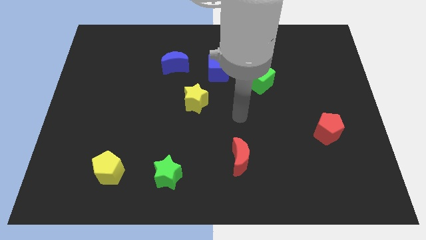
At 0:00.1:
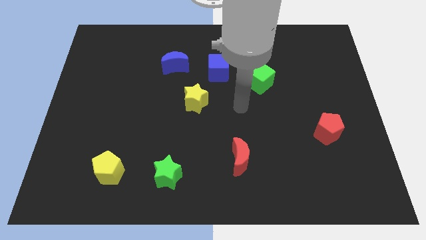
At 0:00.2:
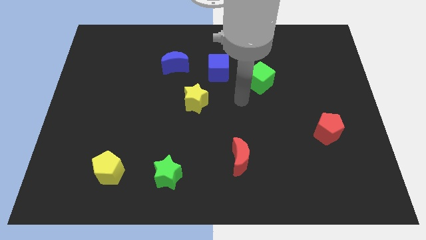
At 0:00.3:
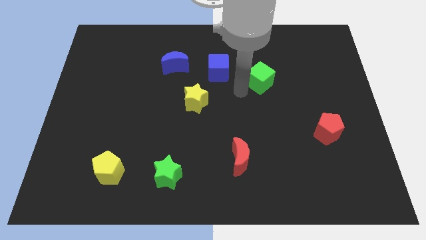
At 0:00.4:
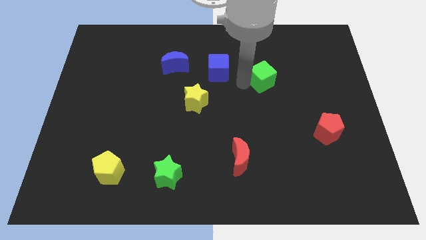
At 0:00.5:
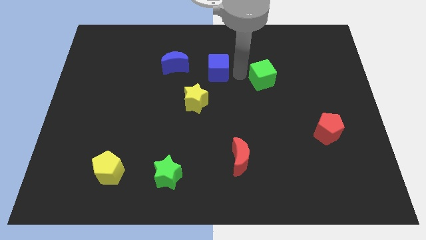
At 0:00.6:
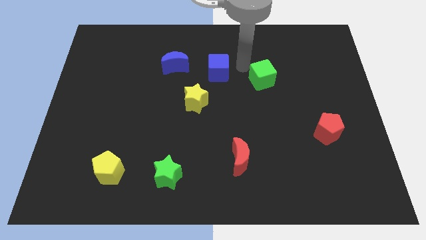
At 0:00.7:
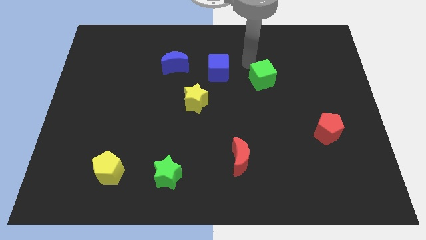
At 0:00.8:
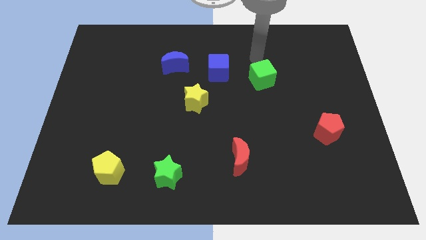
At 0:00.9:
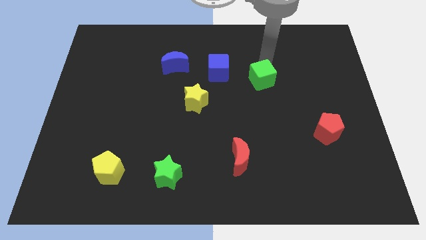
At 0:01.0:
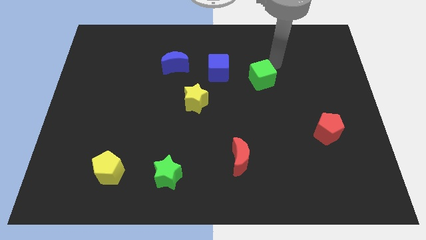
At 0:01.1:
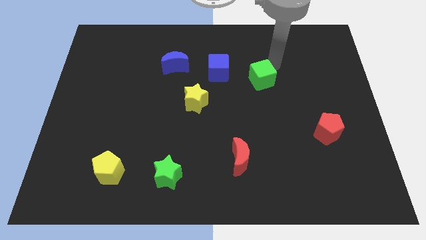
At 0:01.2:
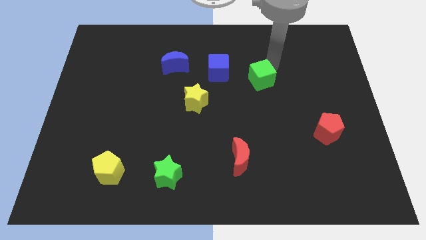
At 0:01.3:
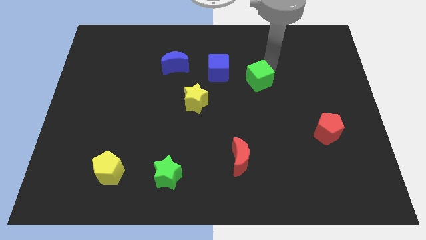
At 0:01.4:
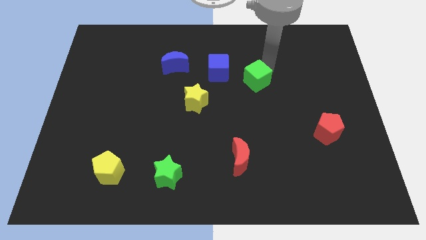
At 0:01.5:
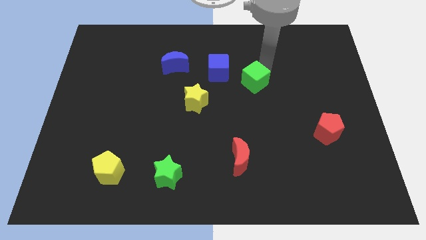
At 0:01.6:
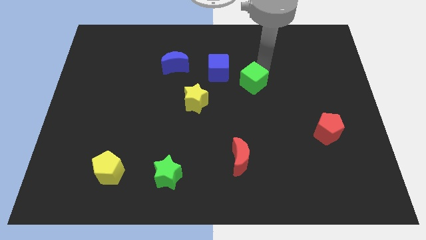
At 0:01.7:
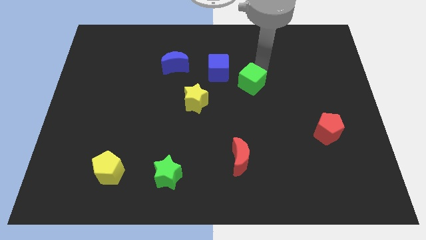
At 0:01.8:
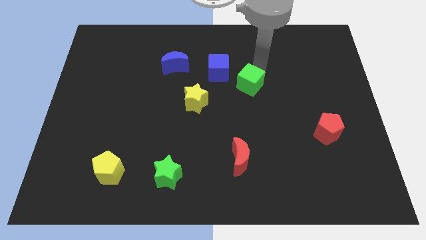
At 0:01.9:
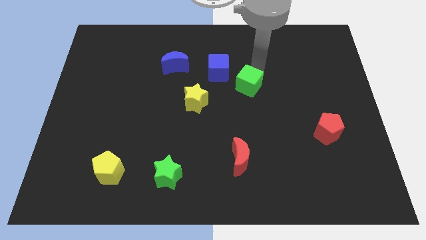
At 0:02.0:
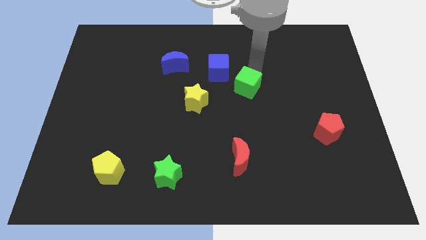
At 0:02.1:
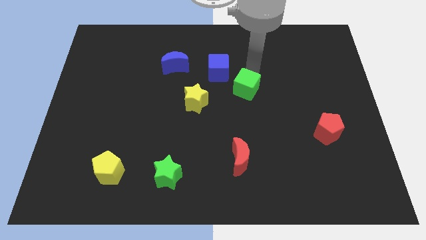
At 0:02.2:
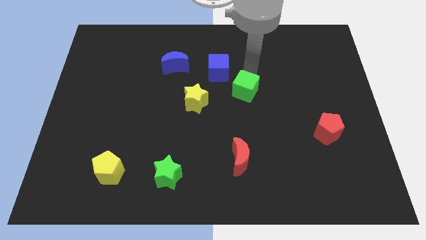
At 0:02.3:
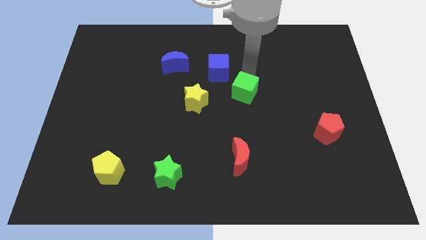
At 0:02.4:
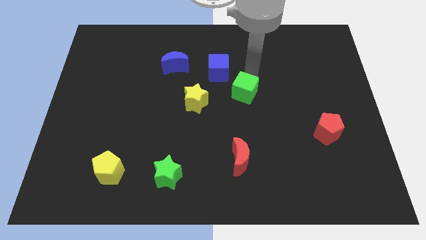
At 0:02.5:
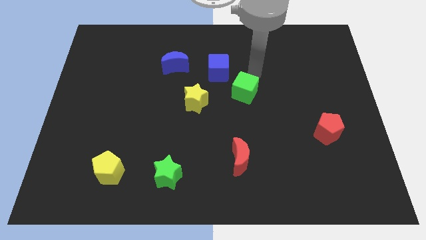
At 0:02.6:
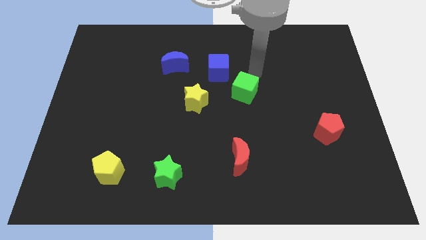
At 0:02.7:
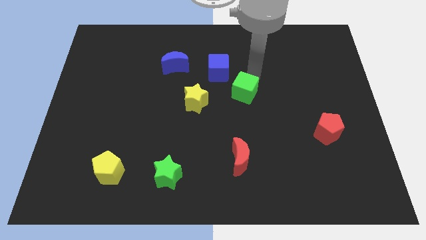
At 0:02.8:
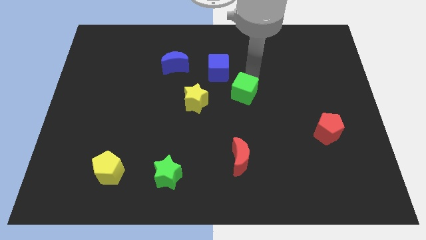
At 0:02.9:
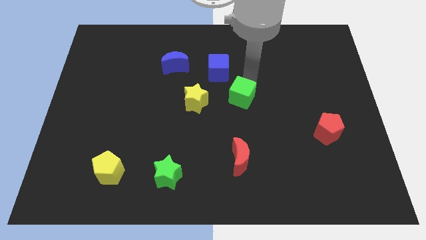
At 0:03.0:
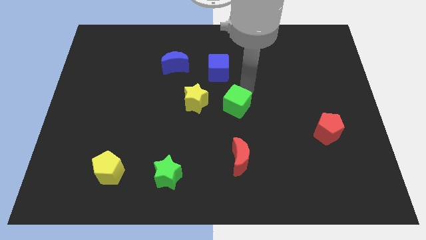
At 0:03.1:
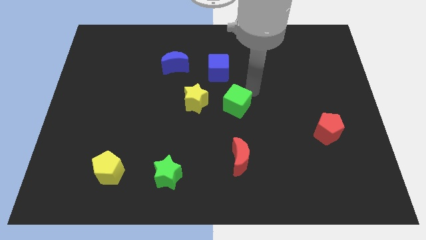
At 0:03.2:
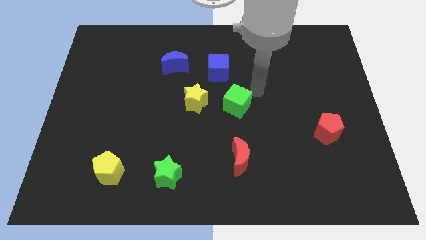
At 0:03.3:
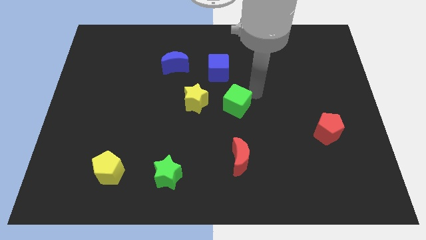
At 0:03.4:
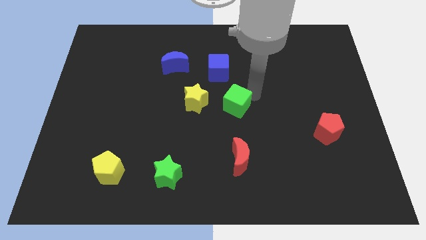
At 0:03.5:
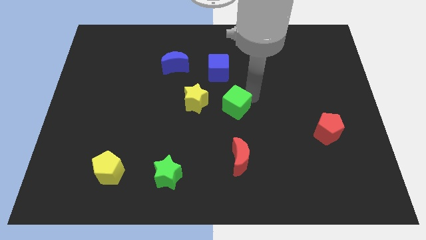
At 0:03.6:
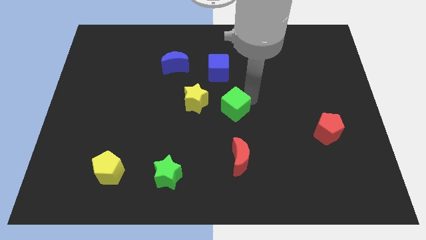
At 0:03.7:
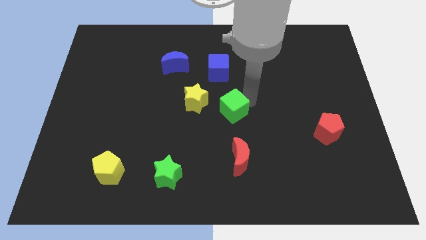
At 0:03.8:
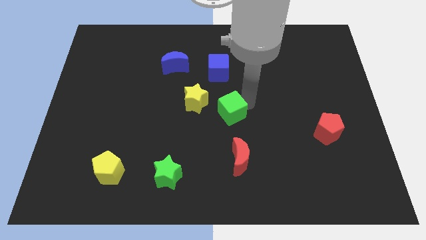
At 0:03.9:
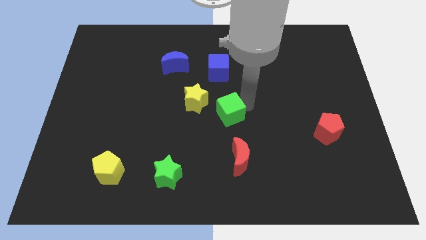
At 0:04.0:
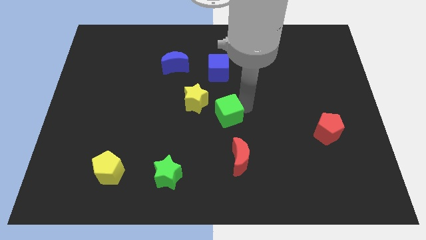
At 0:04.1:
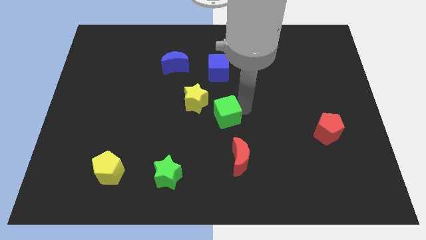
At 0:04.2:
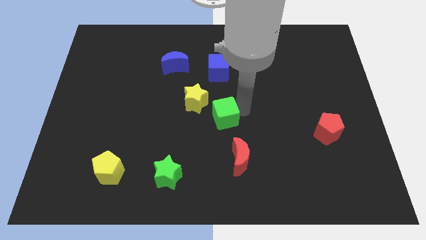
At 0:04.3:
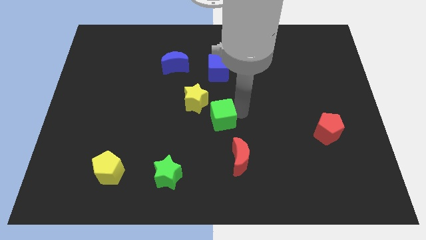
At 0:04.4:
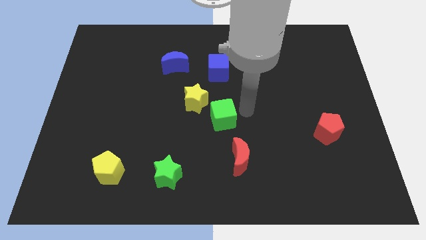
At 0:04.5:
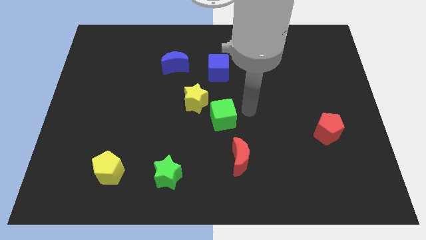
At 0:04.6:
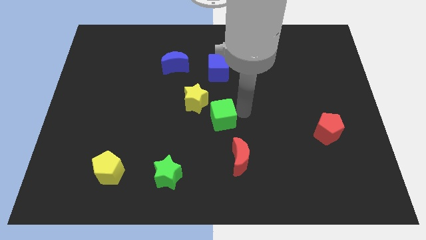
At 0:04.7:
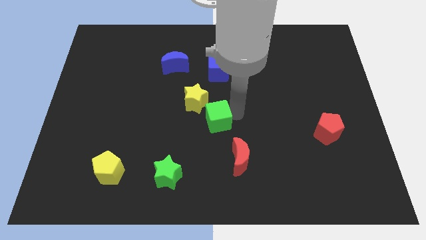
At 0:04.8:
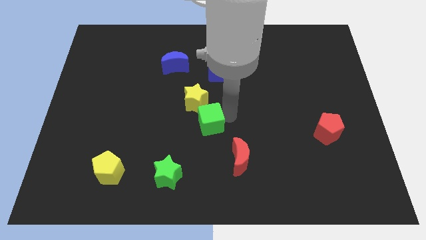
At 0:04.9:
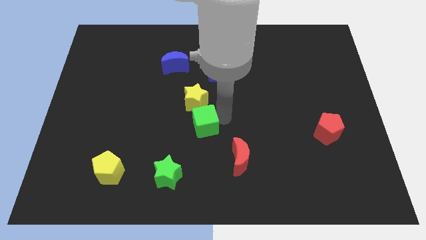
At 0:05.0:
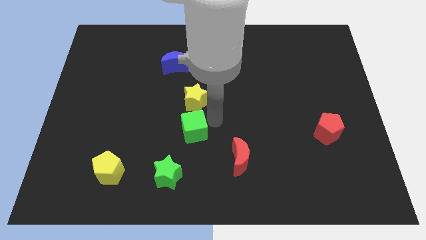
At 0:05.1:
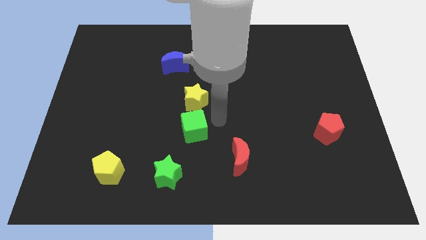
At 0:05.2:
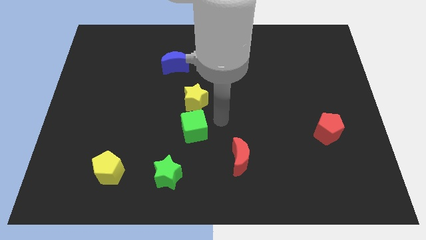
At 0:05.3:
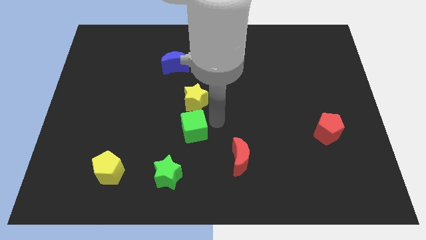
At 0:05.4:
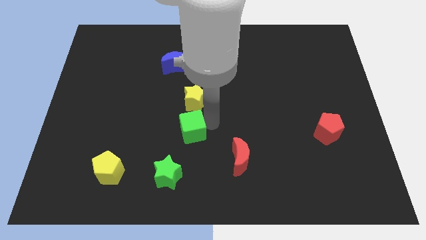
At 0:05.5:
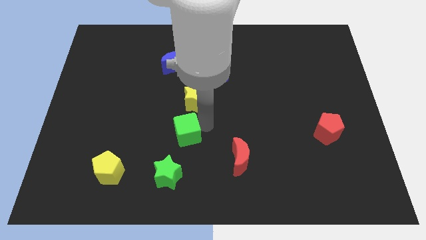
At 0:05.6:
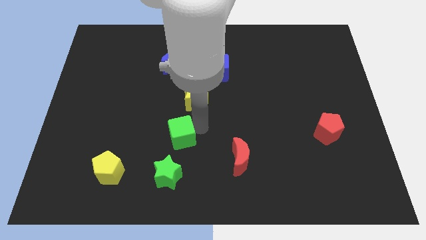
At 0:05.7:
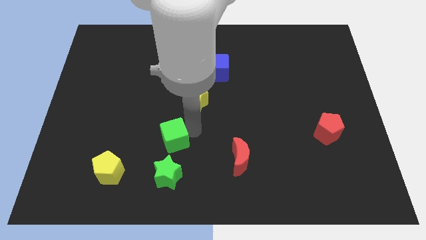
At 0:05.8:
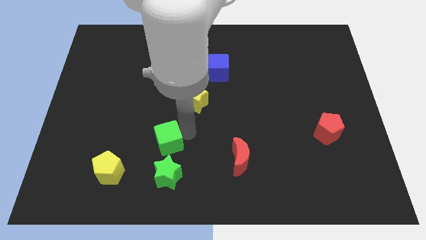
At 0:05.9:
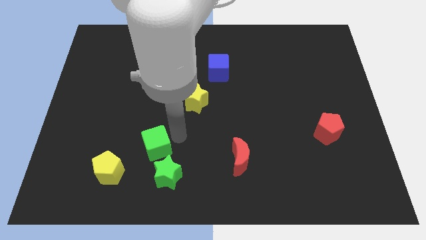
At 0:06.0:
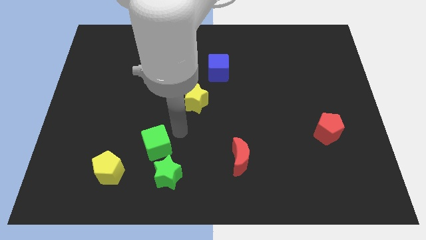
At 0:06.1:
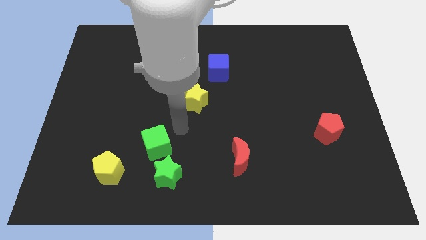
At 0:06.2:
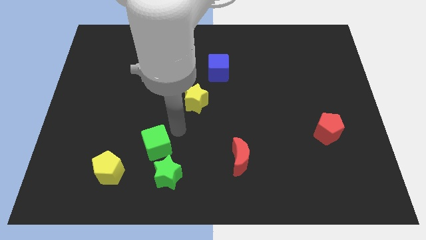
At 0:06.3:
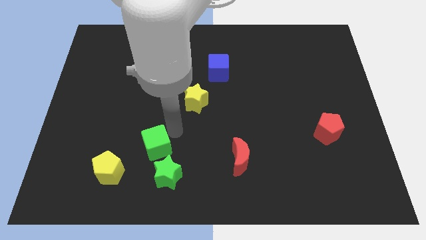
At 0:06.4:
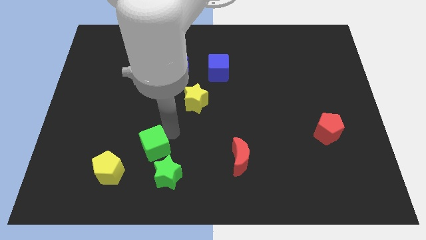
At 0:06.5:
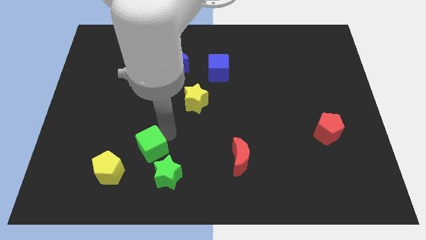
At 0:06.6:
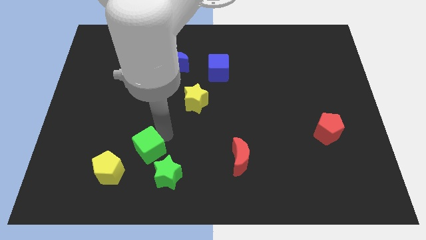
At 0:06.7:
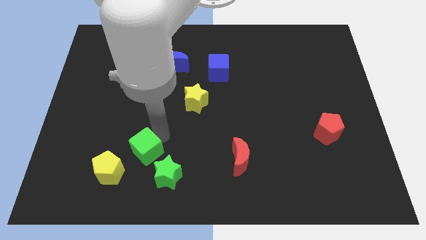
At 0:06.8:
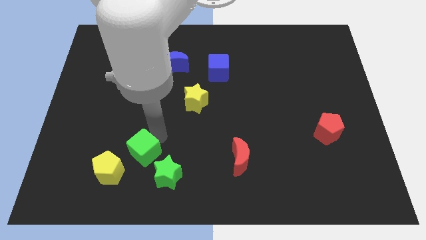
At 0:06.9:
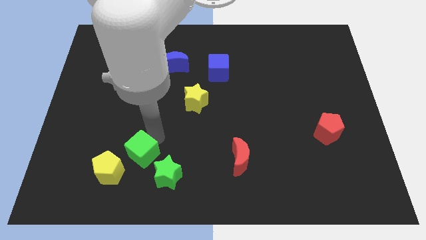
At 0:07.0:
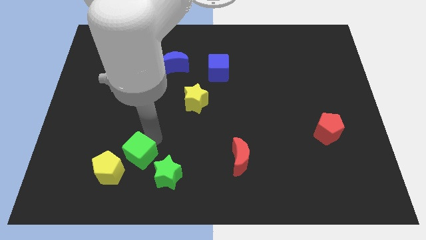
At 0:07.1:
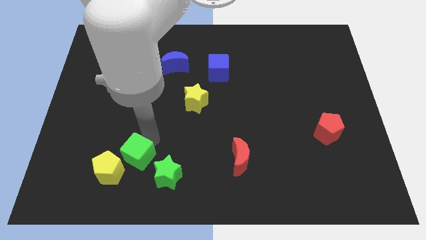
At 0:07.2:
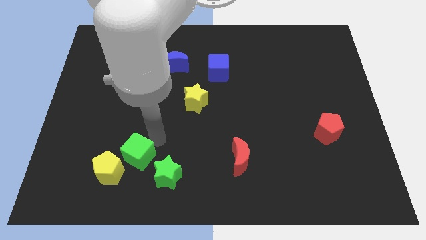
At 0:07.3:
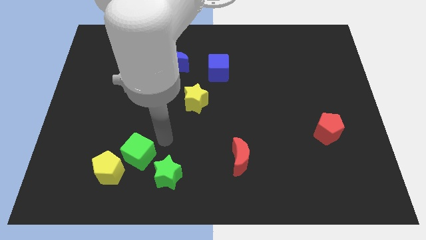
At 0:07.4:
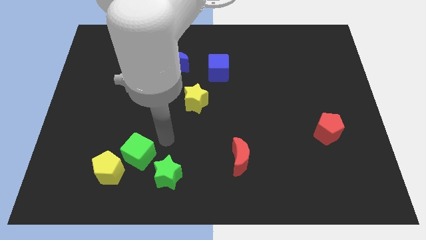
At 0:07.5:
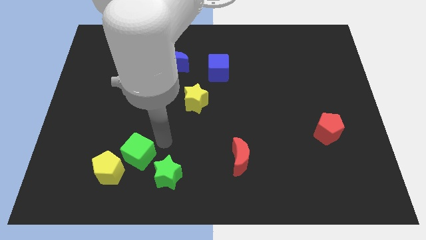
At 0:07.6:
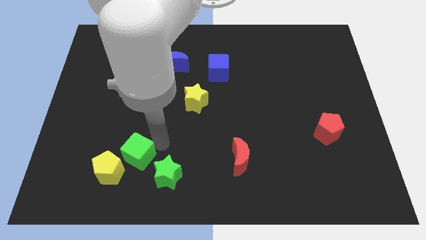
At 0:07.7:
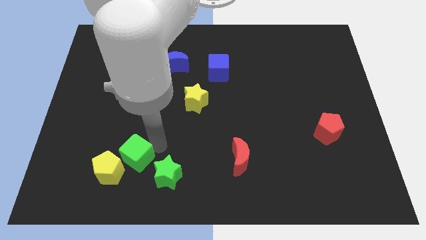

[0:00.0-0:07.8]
slide the green cube towards the yellow pentagon
